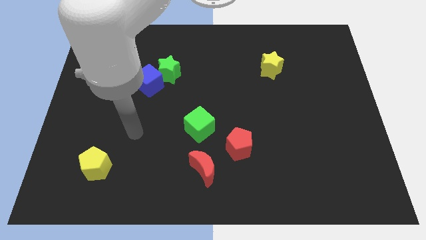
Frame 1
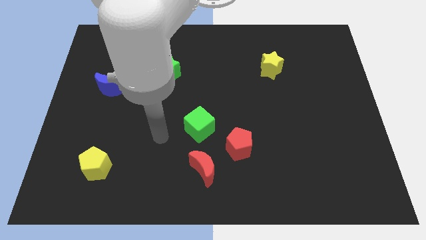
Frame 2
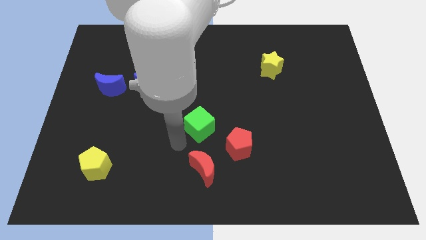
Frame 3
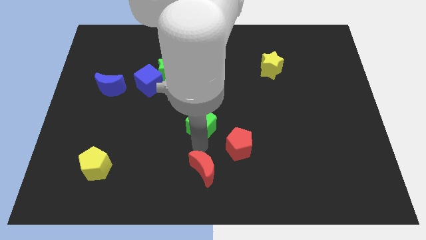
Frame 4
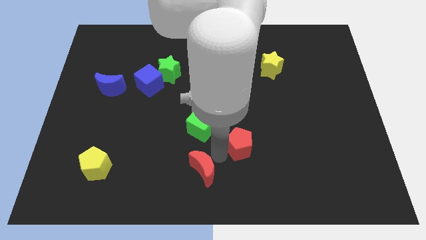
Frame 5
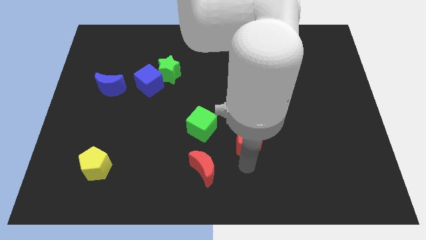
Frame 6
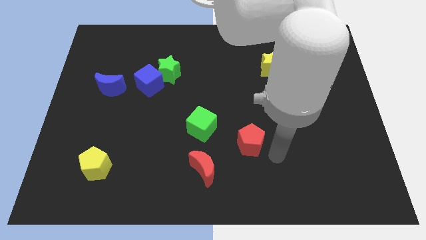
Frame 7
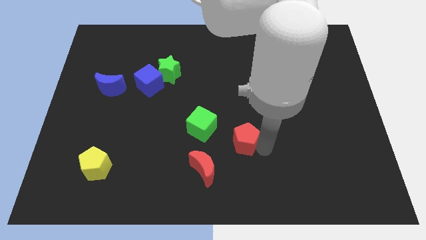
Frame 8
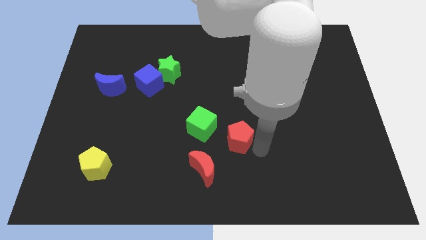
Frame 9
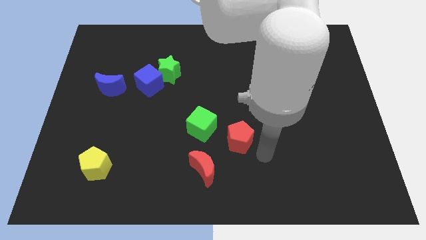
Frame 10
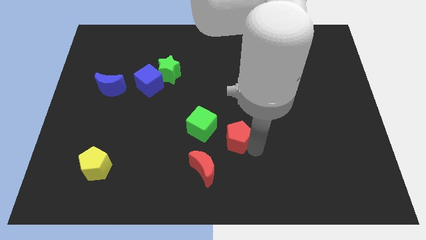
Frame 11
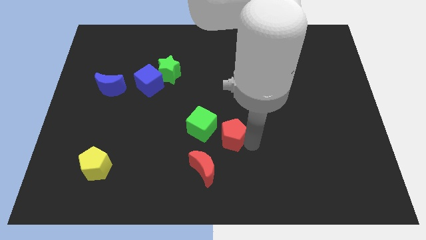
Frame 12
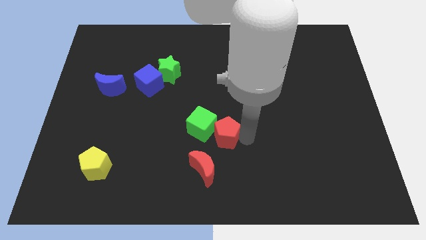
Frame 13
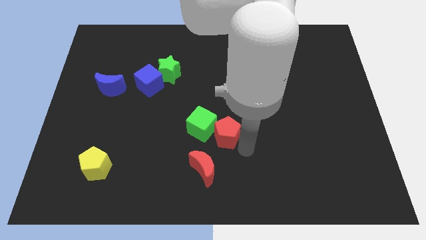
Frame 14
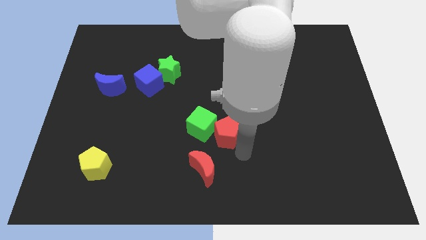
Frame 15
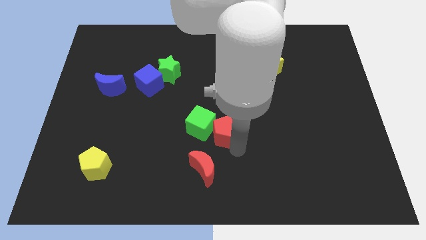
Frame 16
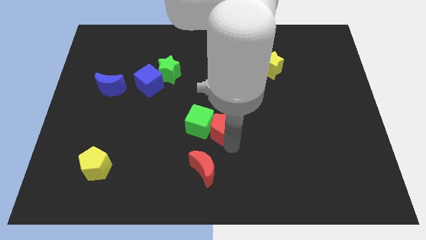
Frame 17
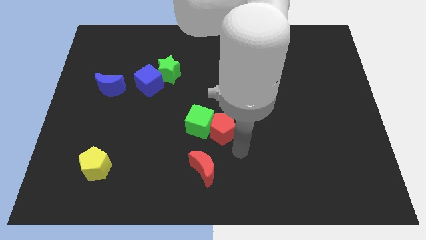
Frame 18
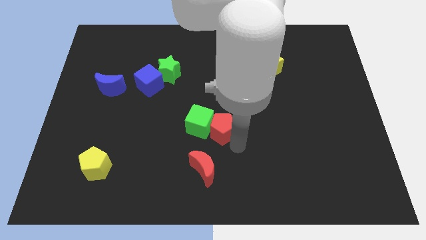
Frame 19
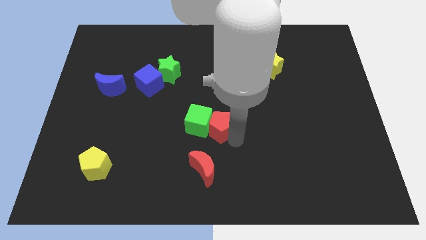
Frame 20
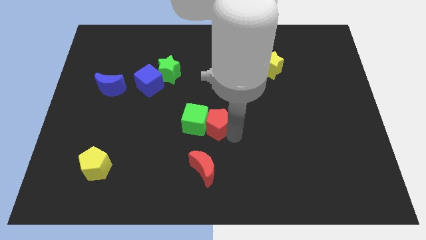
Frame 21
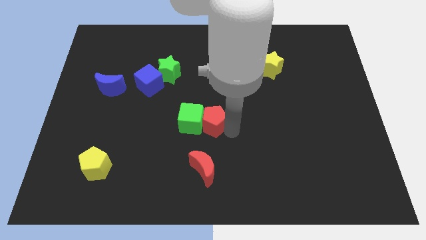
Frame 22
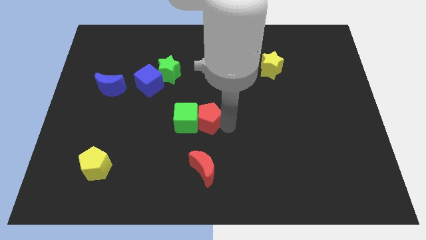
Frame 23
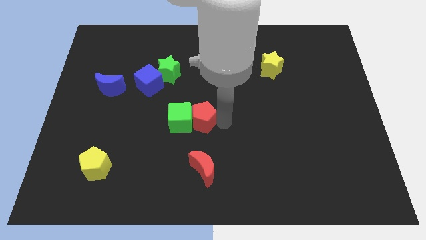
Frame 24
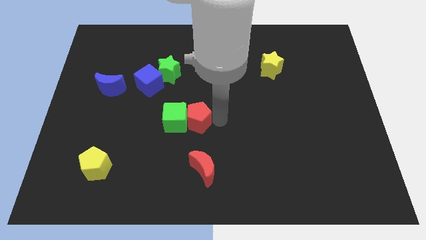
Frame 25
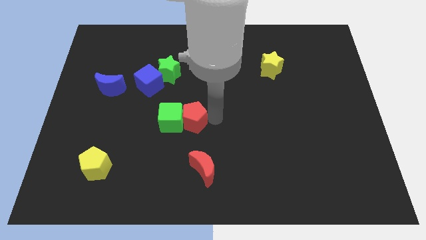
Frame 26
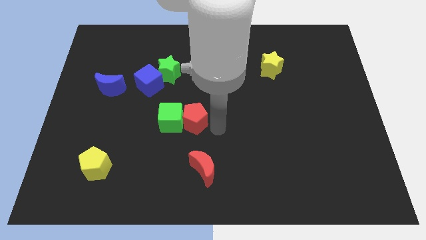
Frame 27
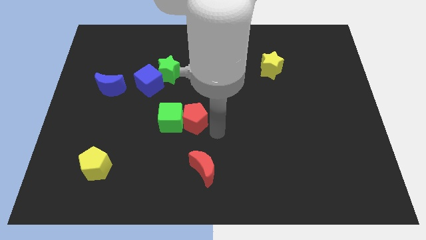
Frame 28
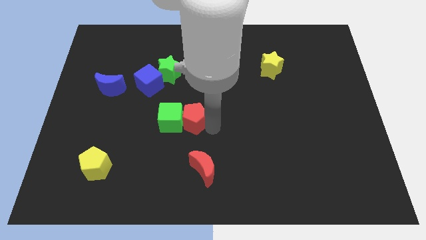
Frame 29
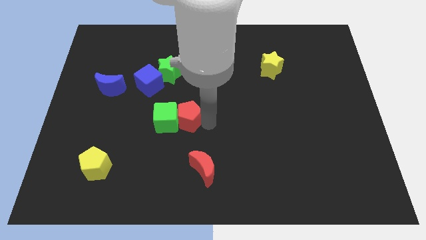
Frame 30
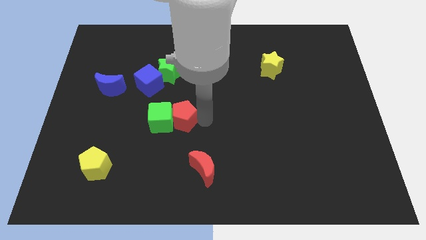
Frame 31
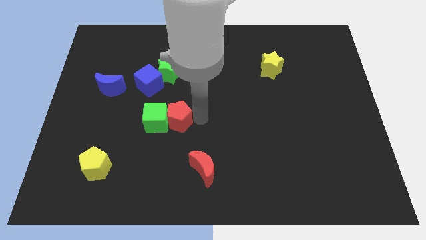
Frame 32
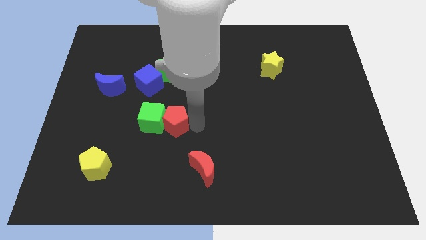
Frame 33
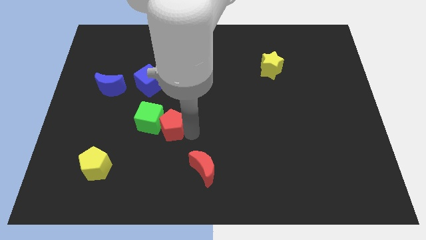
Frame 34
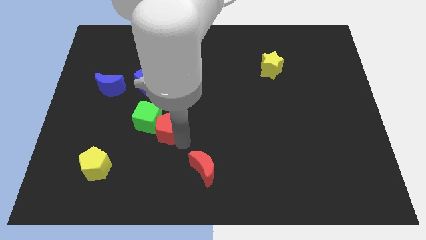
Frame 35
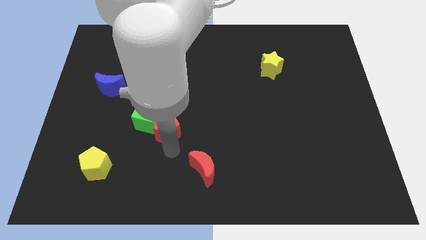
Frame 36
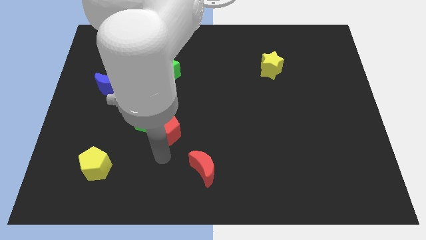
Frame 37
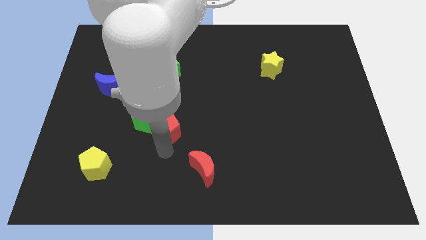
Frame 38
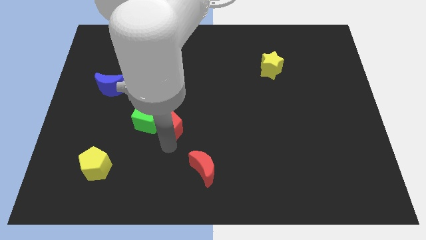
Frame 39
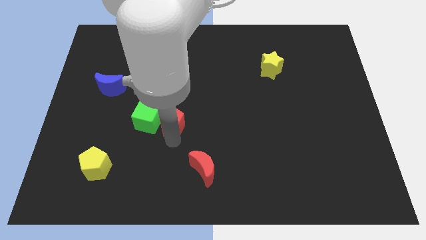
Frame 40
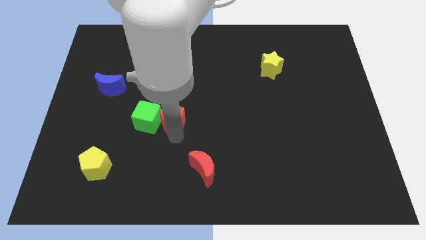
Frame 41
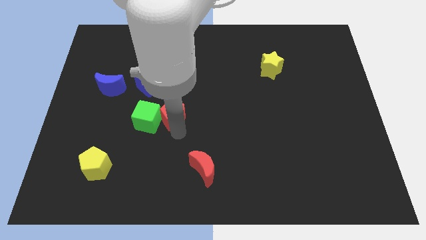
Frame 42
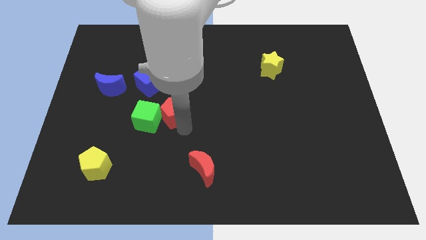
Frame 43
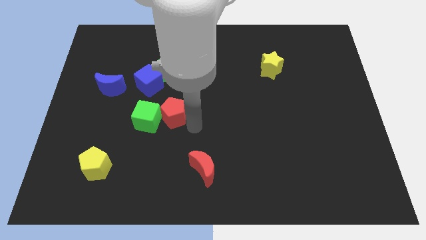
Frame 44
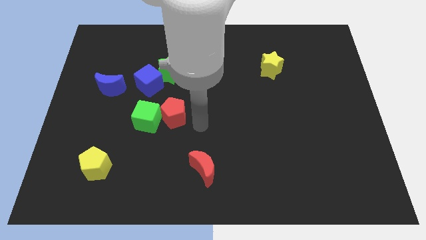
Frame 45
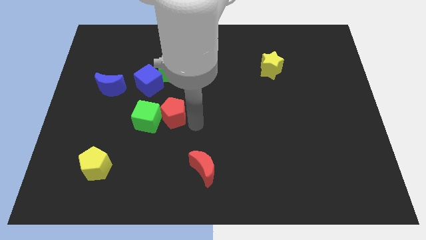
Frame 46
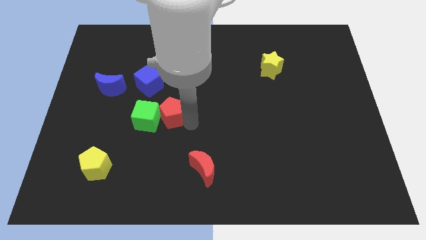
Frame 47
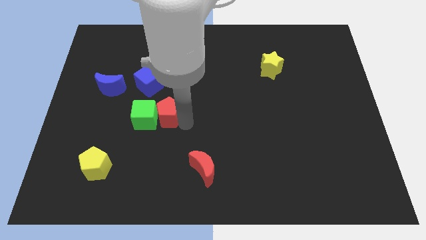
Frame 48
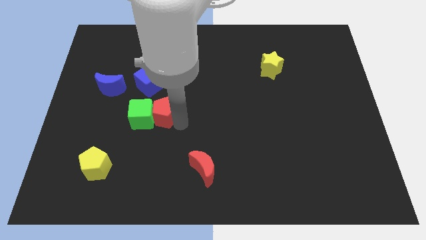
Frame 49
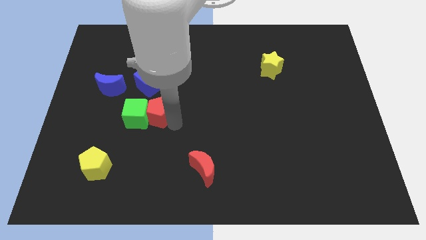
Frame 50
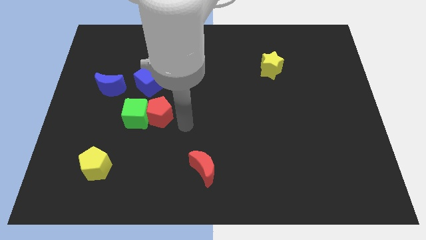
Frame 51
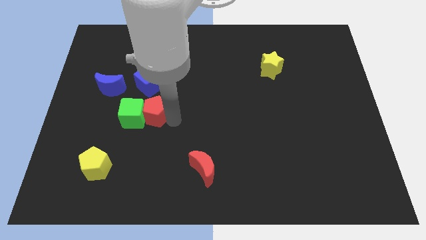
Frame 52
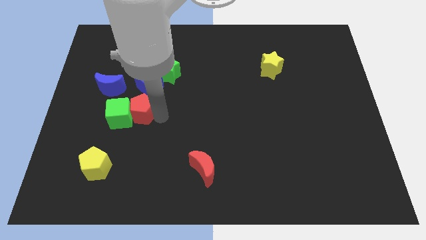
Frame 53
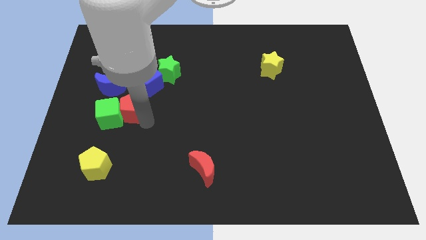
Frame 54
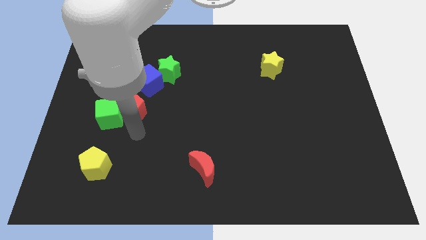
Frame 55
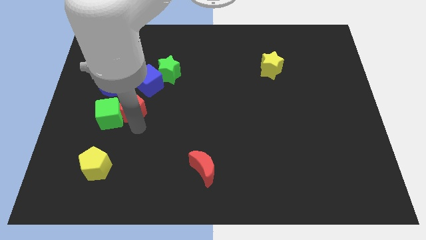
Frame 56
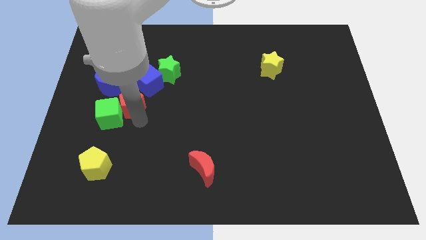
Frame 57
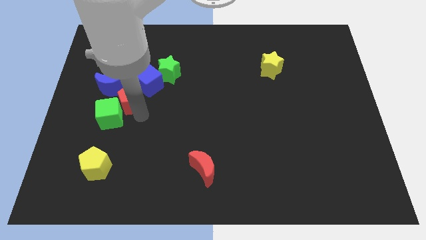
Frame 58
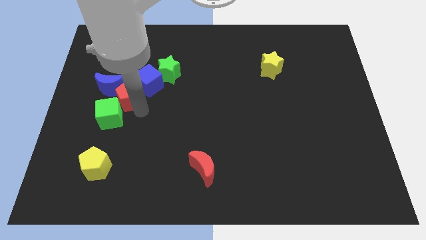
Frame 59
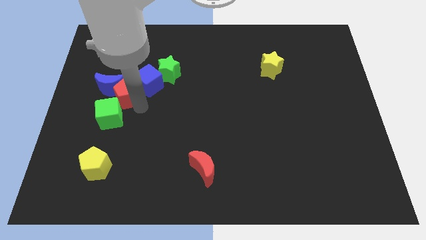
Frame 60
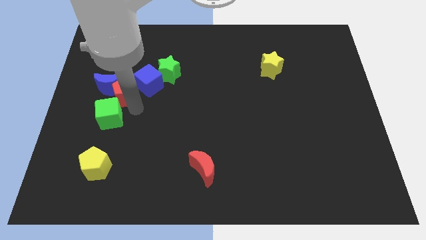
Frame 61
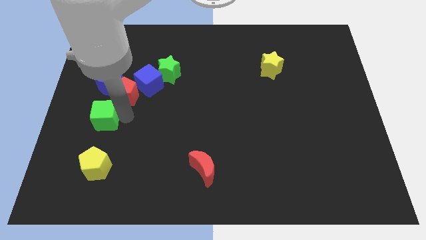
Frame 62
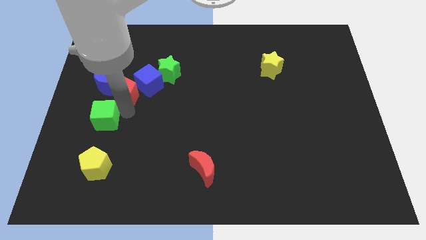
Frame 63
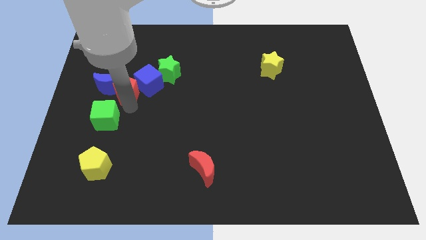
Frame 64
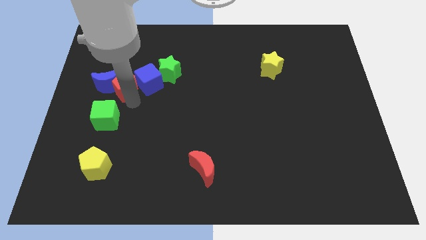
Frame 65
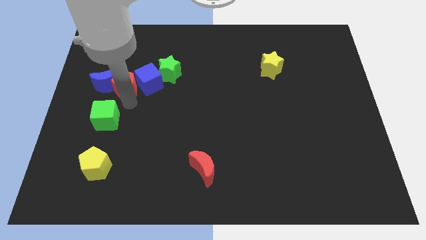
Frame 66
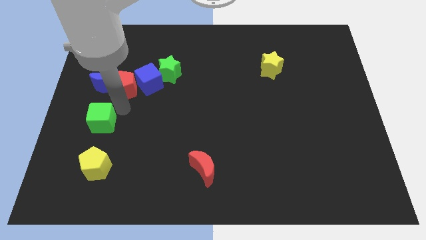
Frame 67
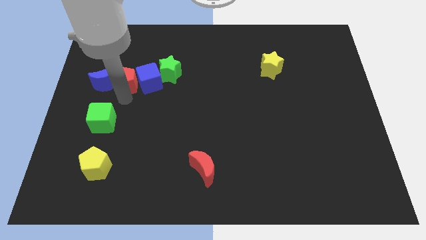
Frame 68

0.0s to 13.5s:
slide the red pentagon to the left side of the green star

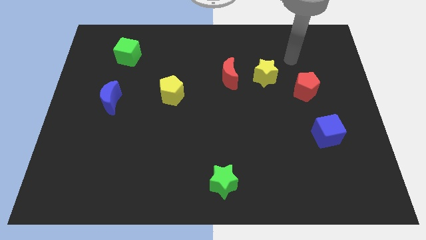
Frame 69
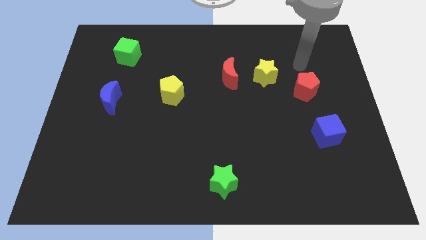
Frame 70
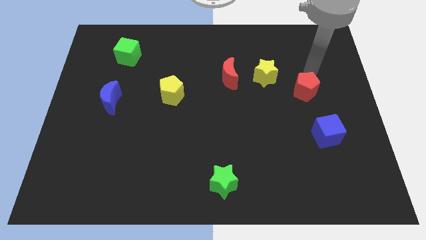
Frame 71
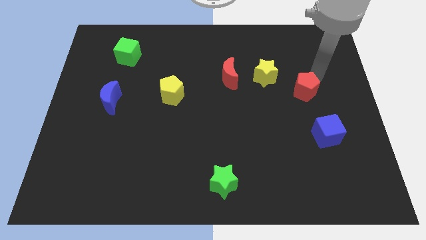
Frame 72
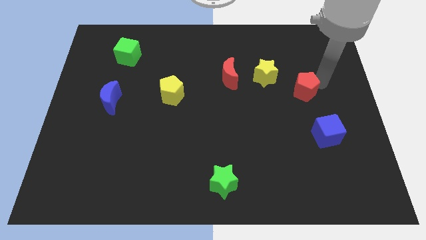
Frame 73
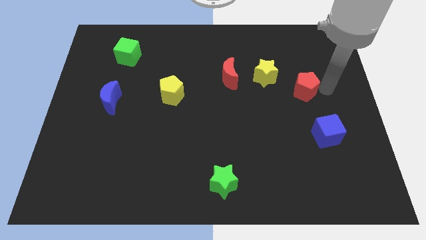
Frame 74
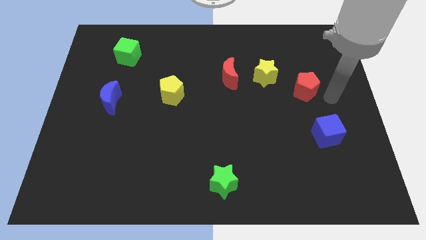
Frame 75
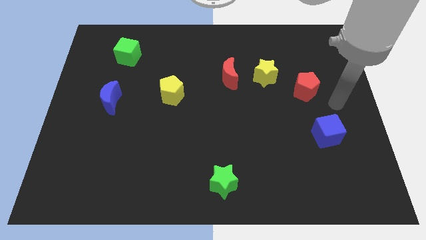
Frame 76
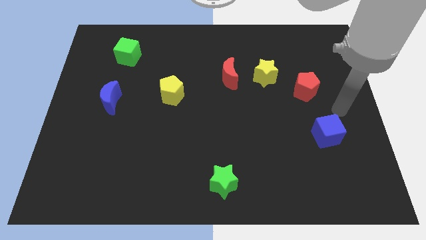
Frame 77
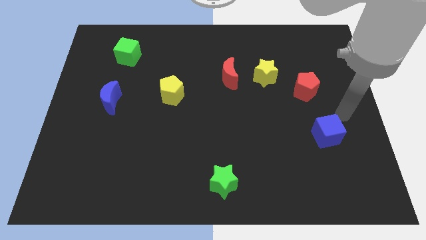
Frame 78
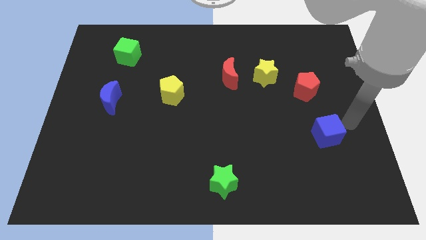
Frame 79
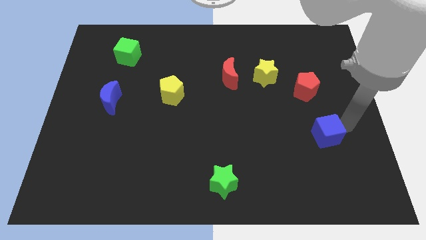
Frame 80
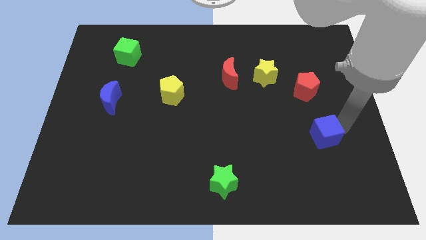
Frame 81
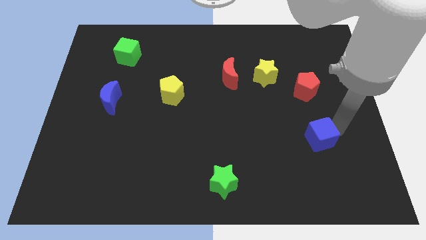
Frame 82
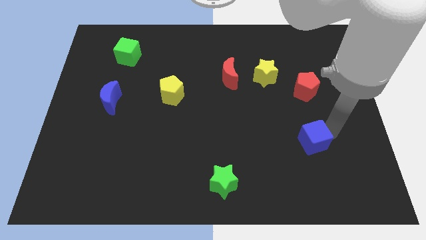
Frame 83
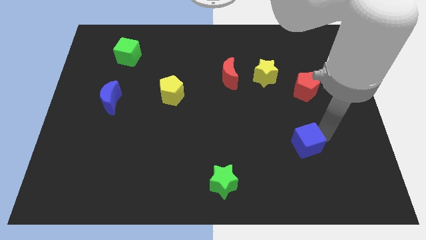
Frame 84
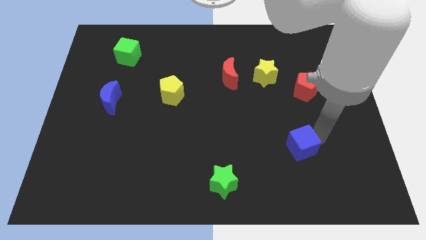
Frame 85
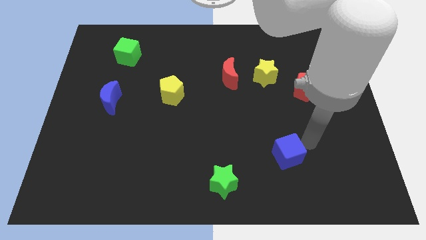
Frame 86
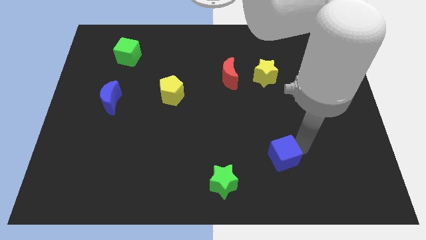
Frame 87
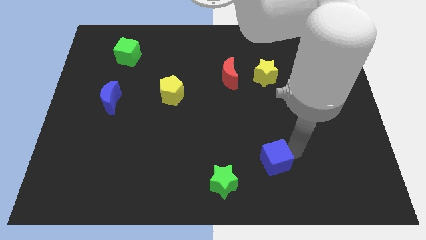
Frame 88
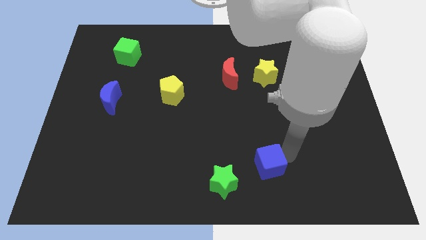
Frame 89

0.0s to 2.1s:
move the blue cube to the top right side of the green star
